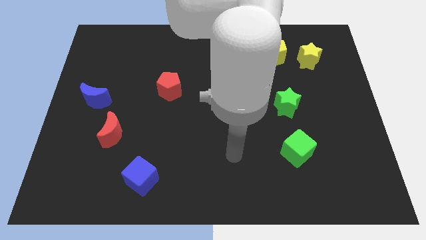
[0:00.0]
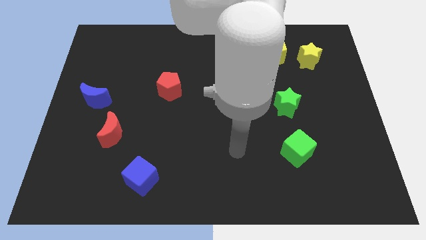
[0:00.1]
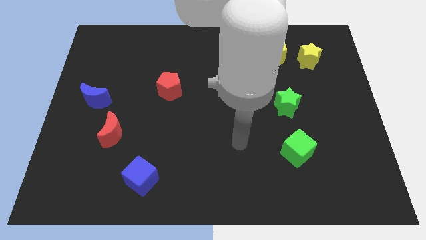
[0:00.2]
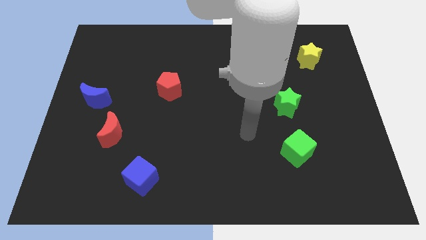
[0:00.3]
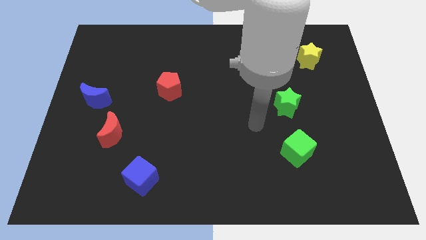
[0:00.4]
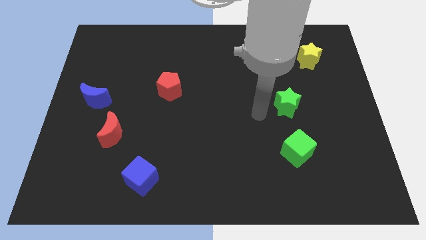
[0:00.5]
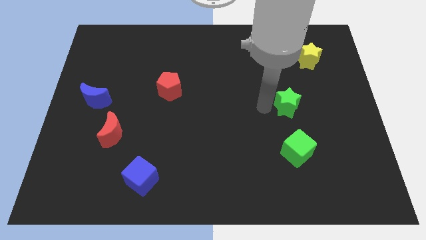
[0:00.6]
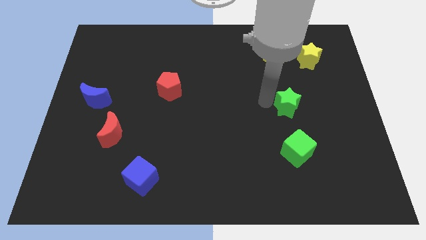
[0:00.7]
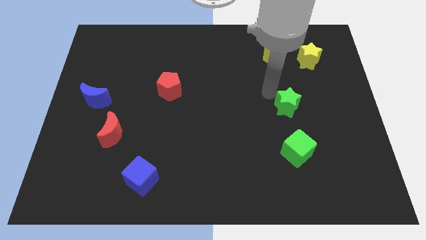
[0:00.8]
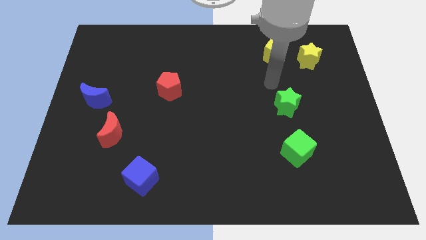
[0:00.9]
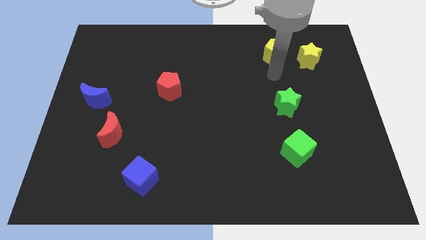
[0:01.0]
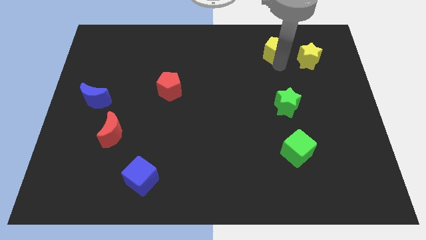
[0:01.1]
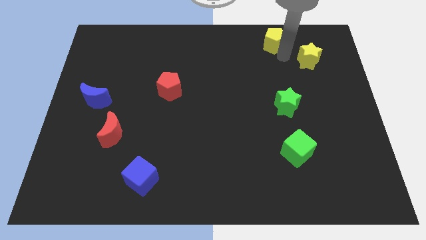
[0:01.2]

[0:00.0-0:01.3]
pull the yellow star apart from the yellow pentagon

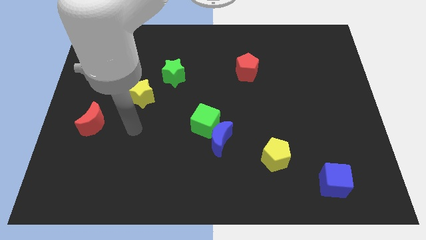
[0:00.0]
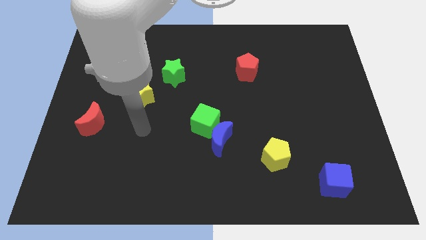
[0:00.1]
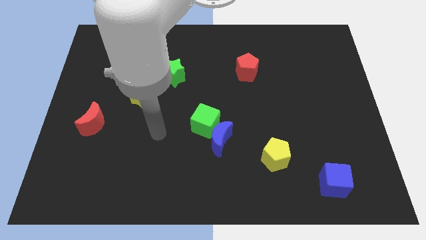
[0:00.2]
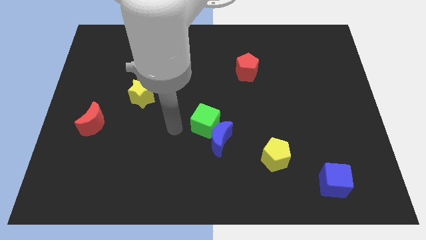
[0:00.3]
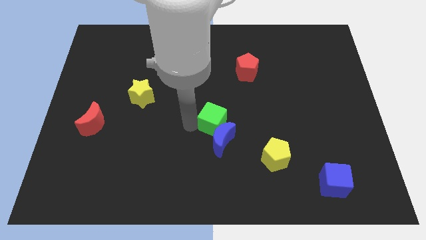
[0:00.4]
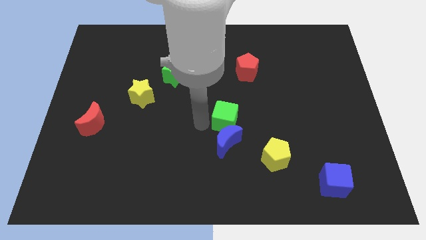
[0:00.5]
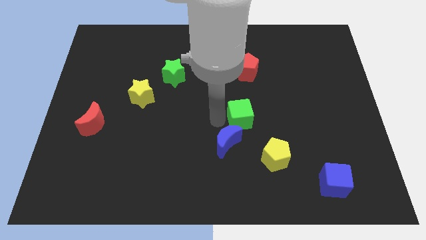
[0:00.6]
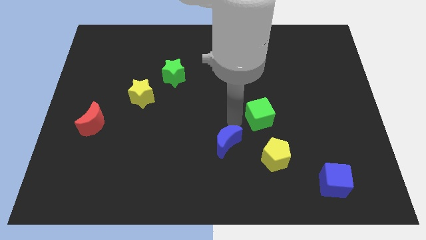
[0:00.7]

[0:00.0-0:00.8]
separate the blue moon from the green cube

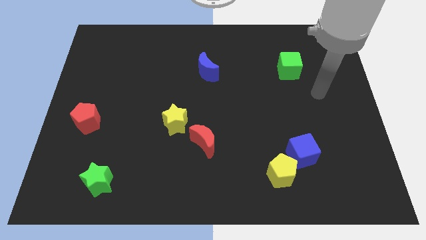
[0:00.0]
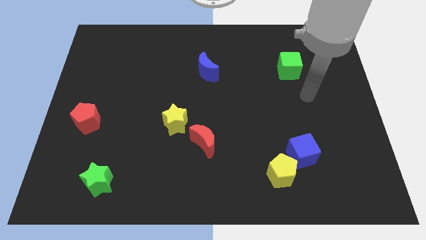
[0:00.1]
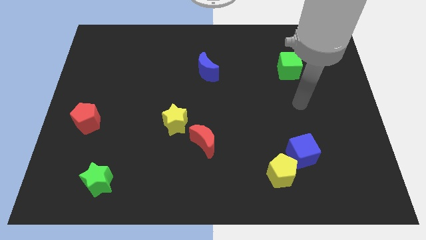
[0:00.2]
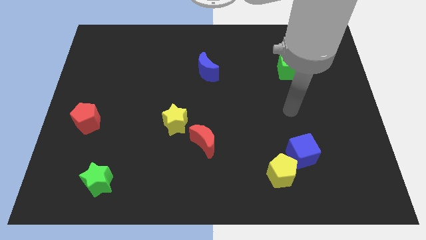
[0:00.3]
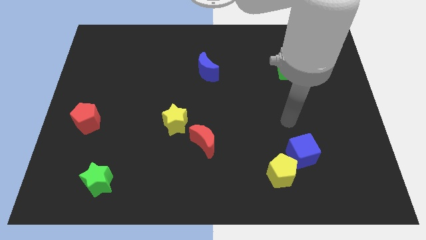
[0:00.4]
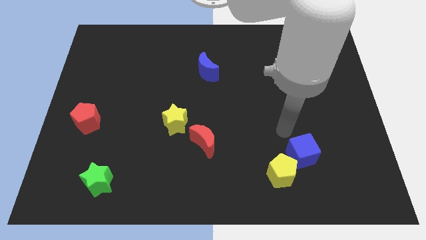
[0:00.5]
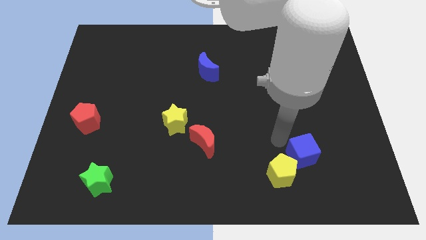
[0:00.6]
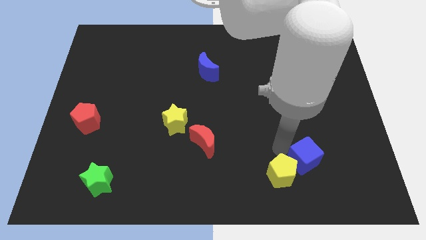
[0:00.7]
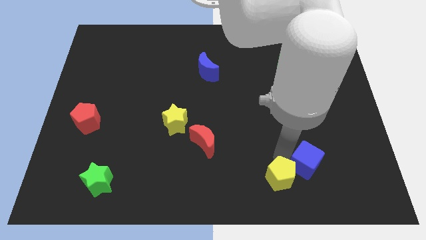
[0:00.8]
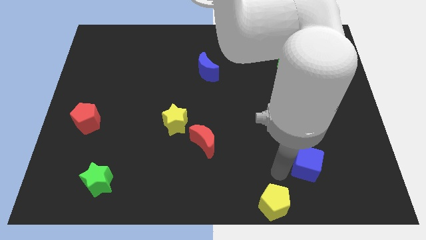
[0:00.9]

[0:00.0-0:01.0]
separate the blue cube from the yellow pentagon

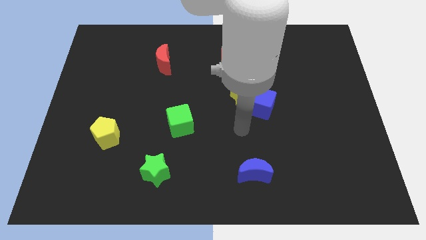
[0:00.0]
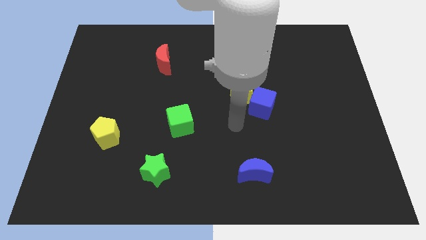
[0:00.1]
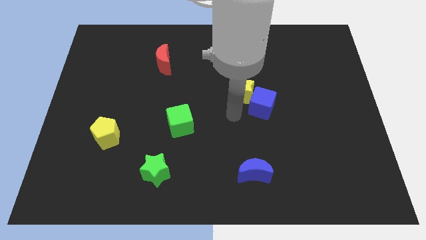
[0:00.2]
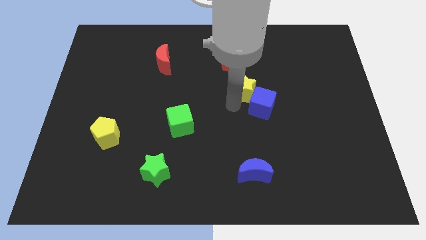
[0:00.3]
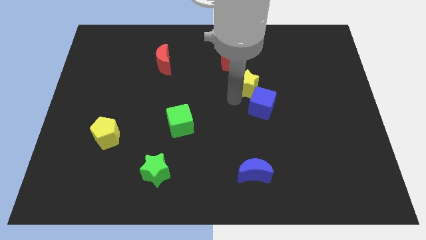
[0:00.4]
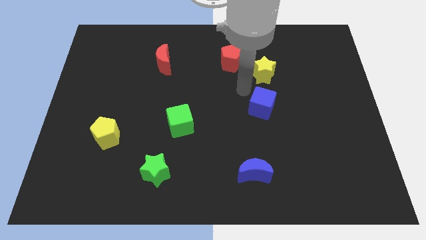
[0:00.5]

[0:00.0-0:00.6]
move the blue cube away from the yellow star

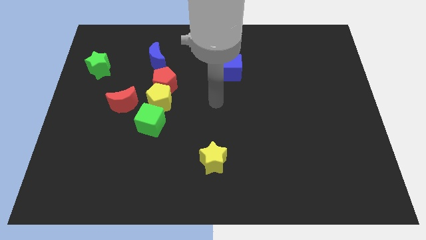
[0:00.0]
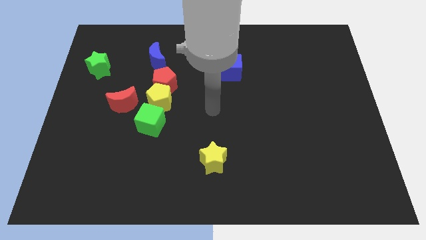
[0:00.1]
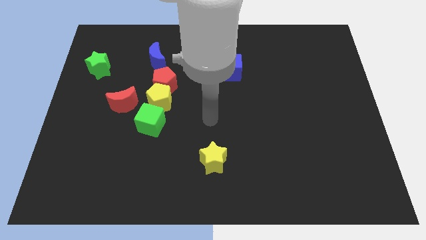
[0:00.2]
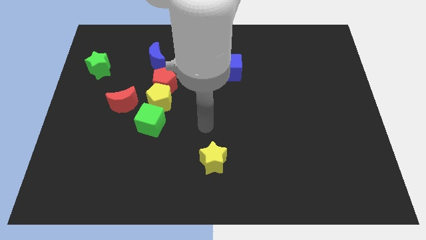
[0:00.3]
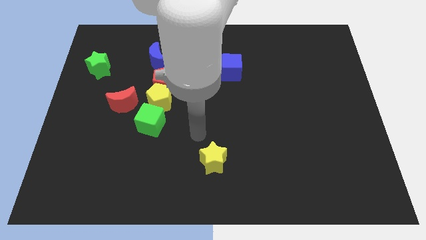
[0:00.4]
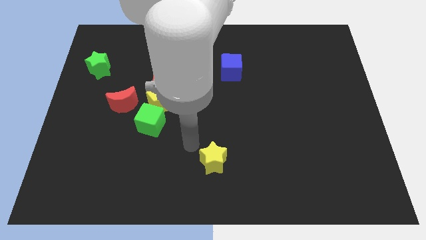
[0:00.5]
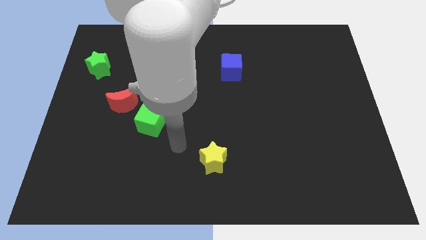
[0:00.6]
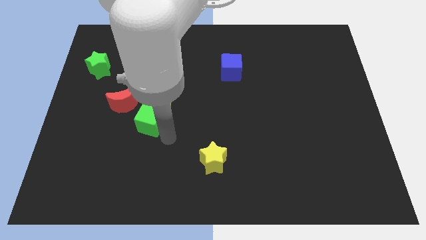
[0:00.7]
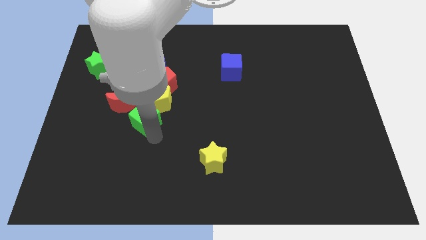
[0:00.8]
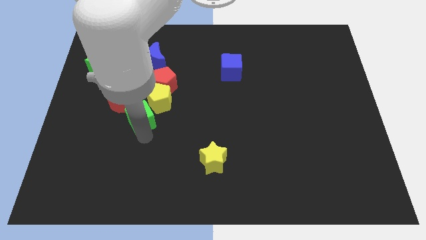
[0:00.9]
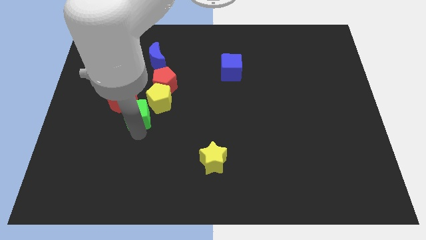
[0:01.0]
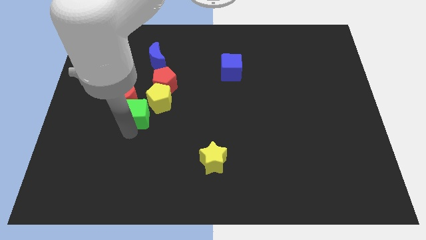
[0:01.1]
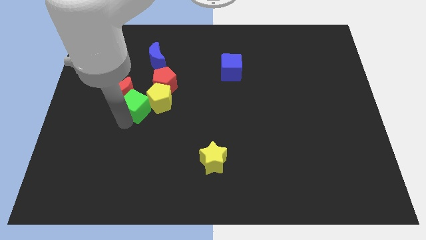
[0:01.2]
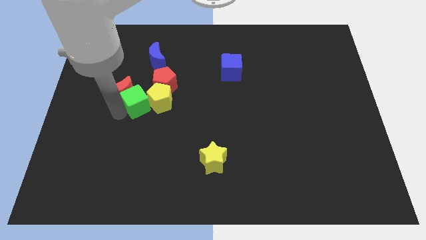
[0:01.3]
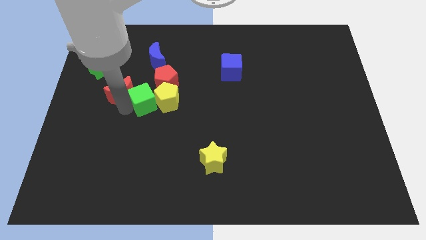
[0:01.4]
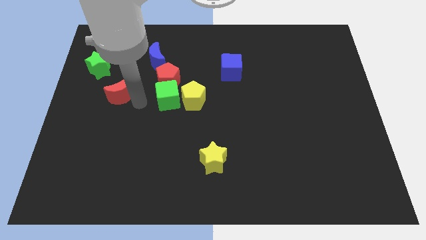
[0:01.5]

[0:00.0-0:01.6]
separate the yellow pentagon from the red pentagon, green cube, and red moon

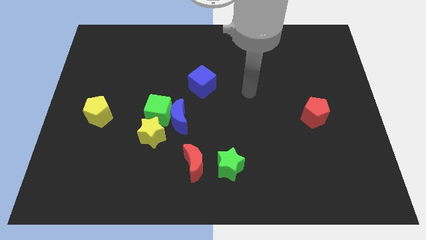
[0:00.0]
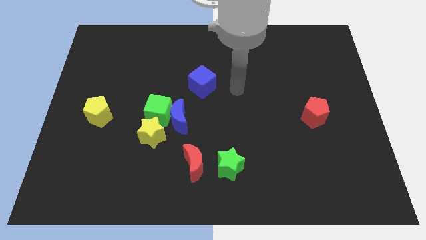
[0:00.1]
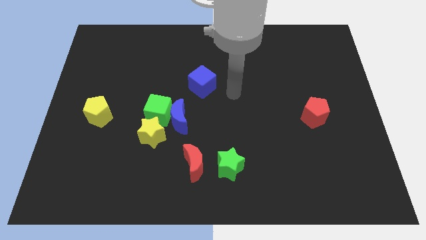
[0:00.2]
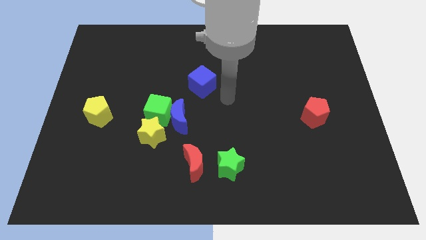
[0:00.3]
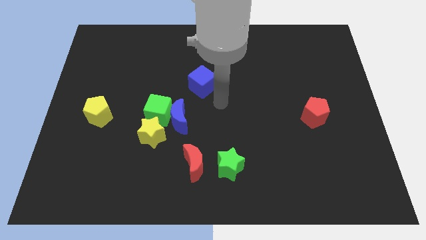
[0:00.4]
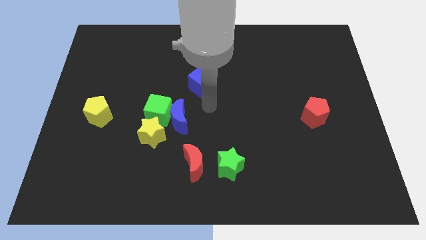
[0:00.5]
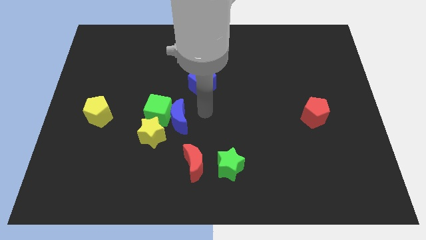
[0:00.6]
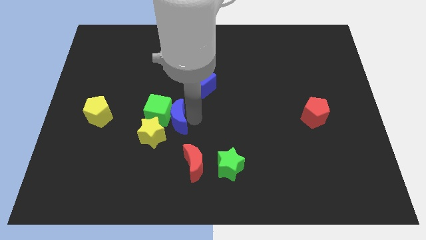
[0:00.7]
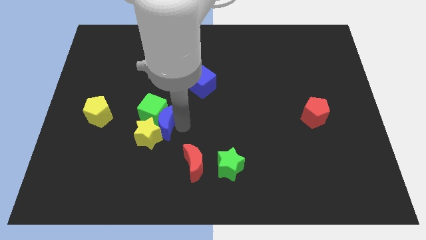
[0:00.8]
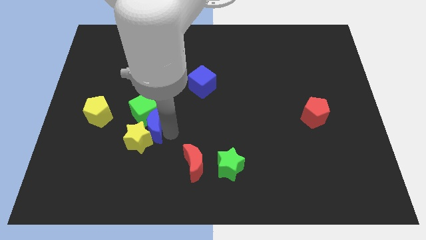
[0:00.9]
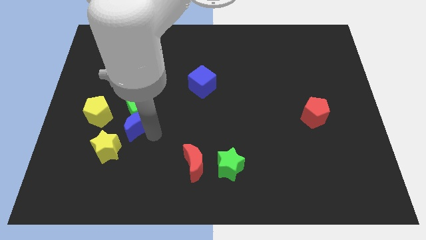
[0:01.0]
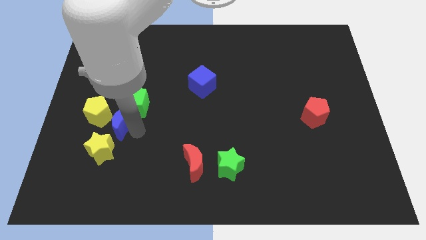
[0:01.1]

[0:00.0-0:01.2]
pull the green cube apart from the blue moon and yellow star

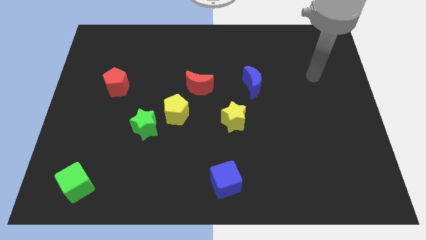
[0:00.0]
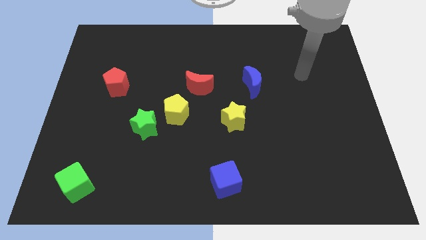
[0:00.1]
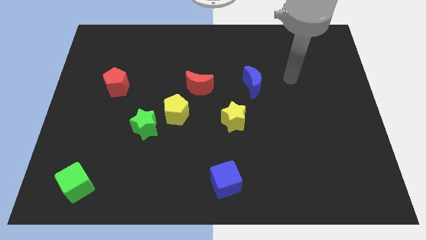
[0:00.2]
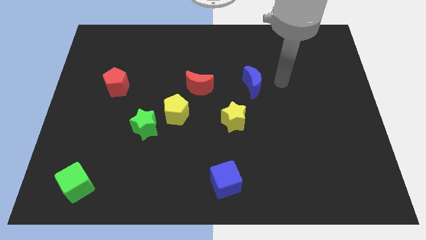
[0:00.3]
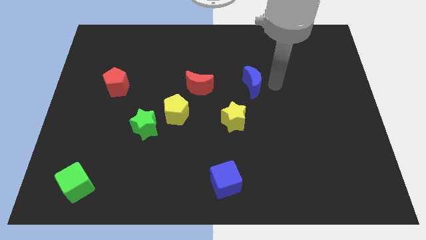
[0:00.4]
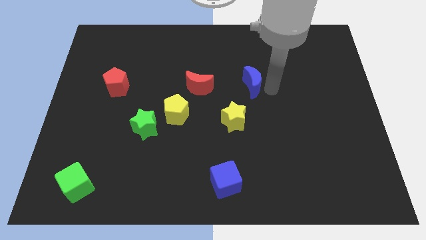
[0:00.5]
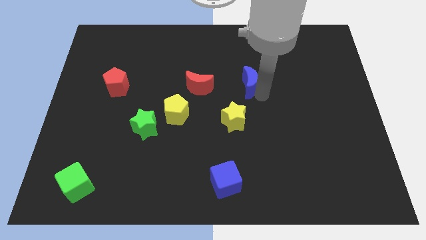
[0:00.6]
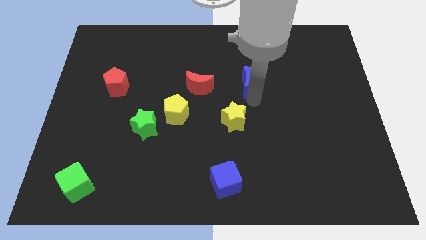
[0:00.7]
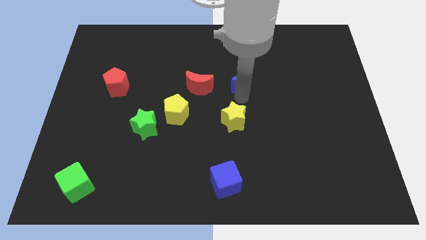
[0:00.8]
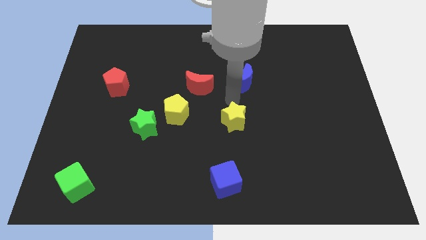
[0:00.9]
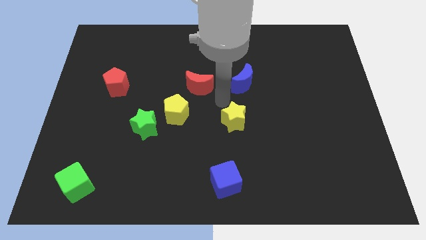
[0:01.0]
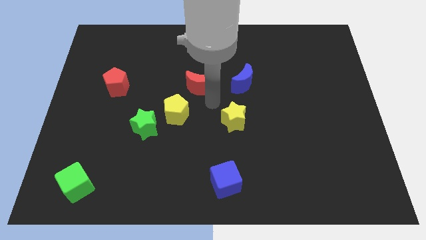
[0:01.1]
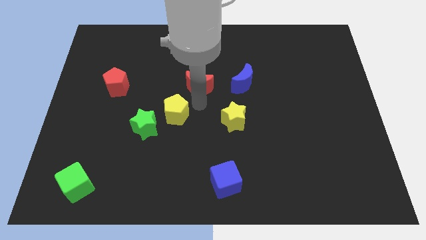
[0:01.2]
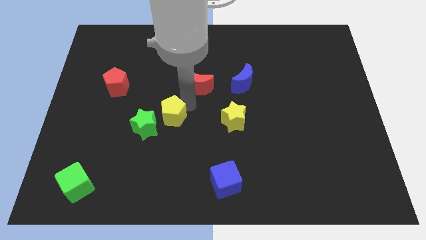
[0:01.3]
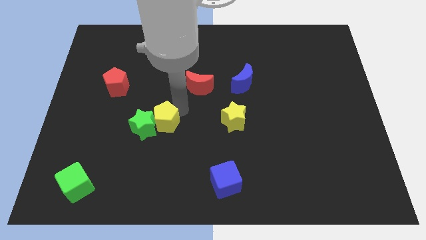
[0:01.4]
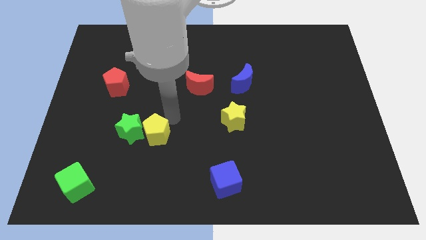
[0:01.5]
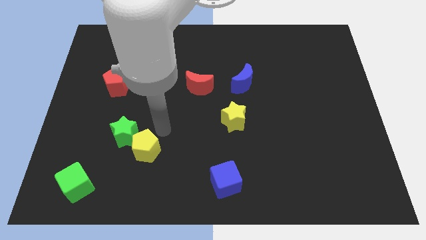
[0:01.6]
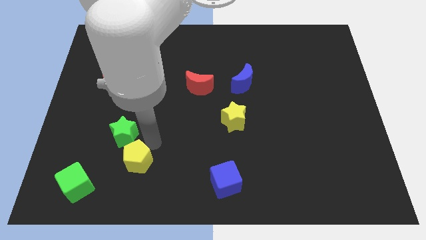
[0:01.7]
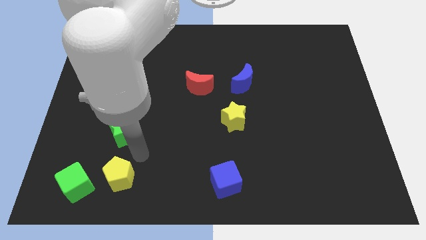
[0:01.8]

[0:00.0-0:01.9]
separate the green star from the yellow pentagon

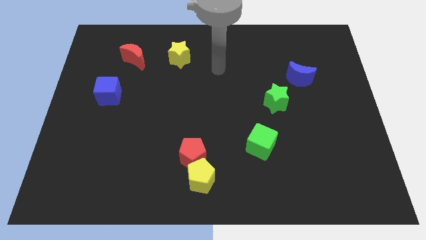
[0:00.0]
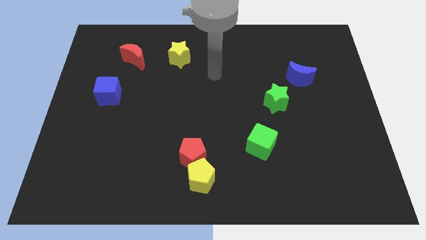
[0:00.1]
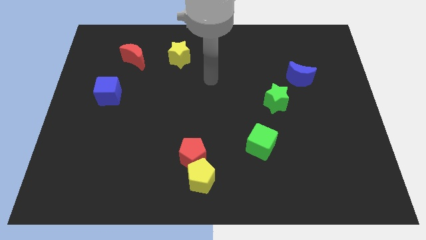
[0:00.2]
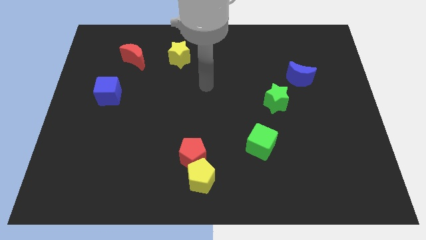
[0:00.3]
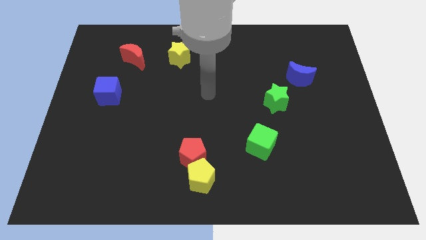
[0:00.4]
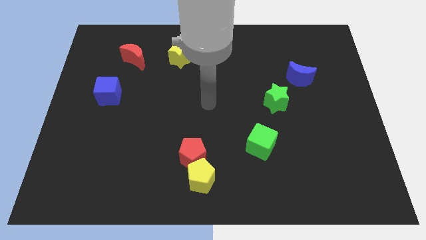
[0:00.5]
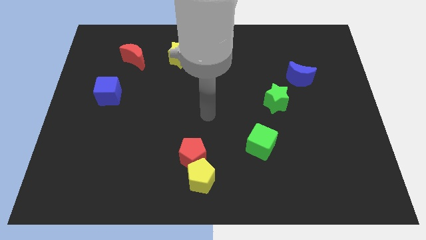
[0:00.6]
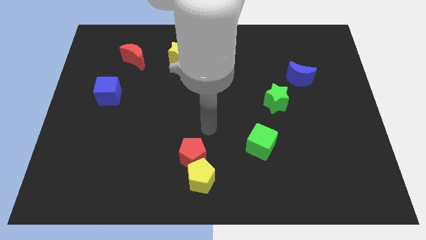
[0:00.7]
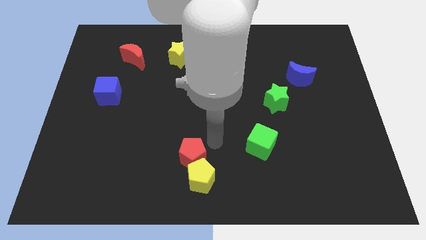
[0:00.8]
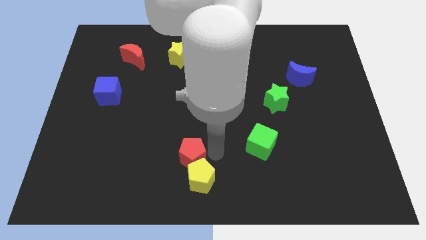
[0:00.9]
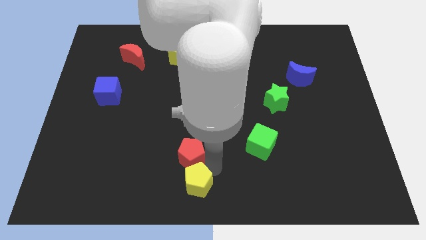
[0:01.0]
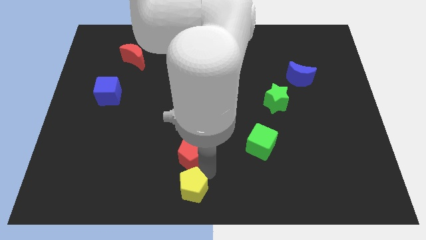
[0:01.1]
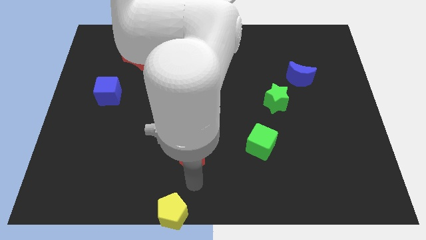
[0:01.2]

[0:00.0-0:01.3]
move the red pentagon away from the yellow pentagon
